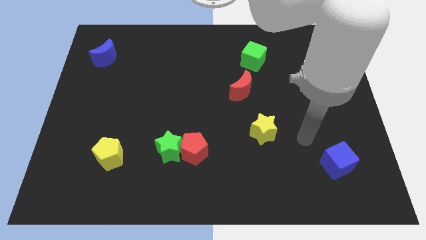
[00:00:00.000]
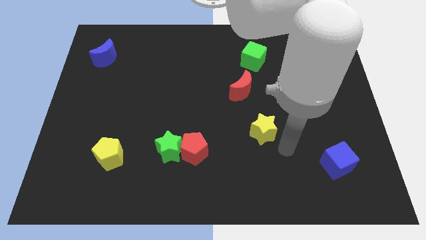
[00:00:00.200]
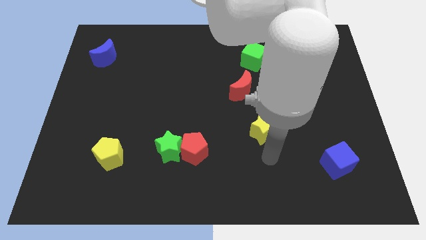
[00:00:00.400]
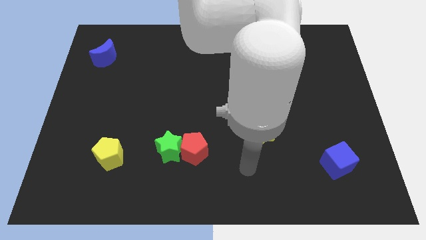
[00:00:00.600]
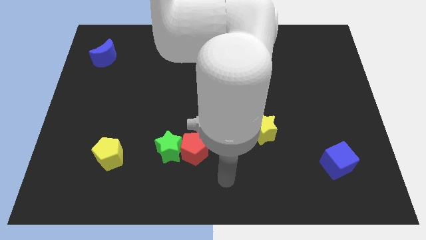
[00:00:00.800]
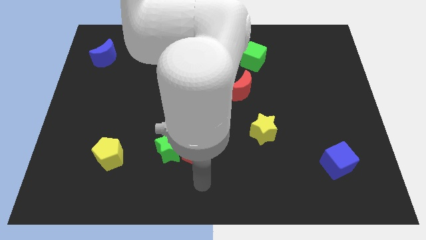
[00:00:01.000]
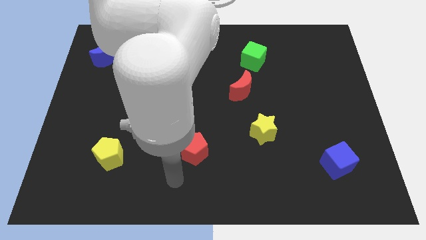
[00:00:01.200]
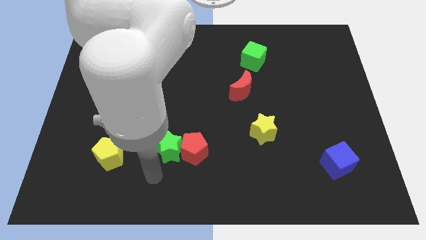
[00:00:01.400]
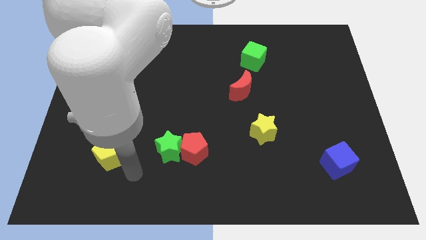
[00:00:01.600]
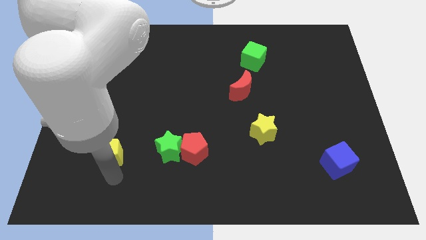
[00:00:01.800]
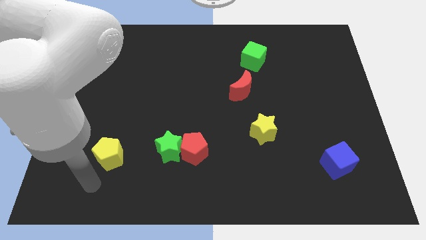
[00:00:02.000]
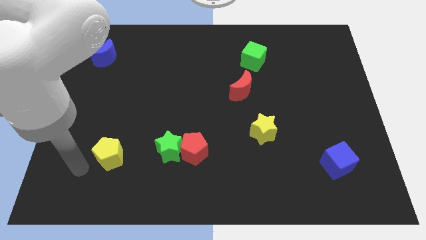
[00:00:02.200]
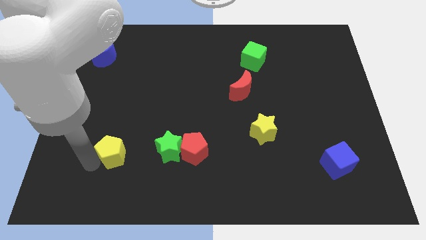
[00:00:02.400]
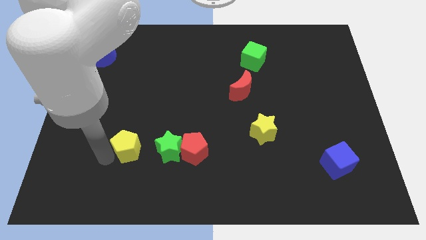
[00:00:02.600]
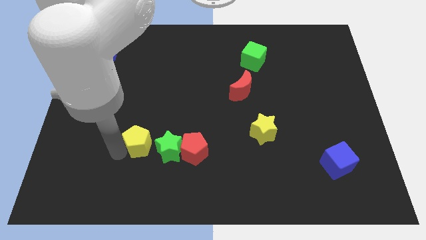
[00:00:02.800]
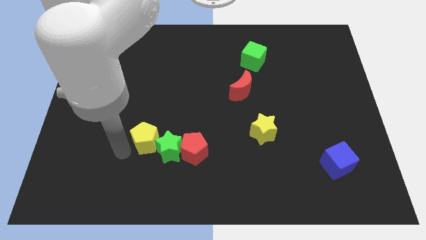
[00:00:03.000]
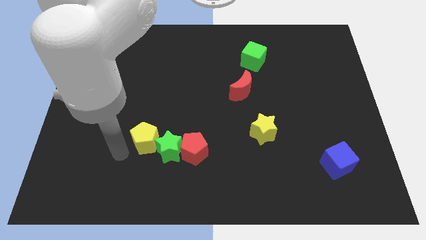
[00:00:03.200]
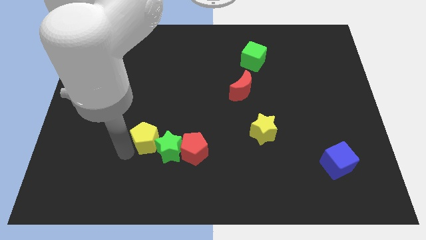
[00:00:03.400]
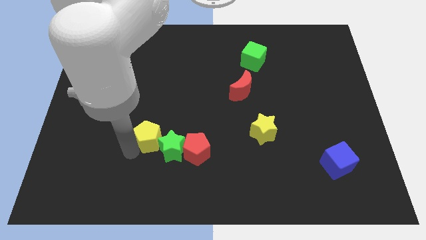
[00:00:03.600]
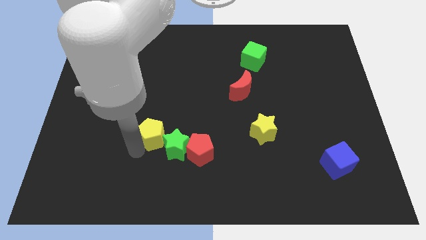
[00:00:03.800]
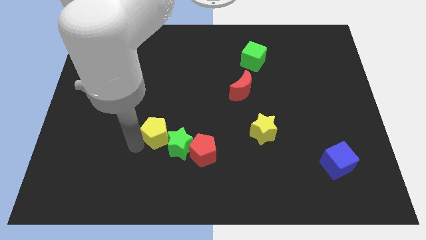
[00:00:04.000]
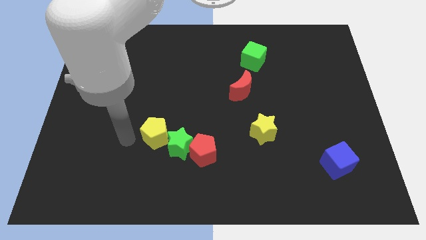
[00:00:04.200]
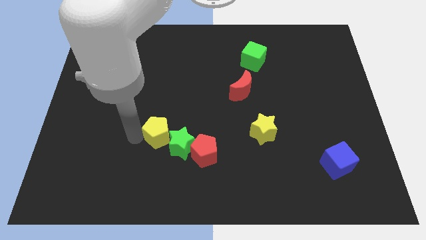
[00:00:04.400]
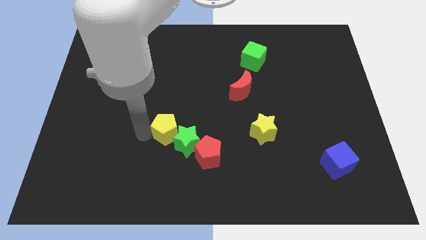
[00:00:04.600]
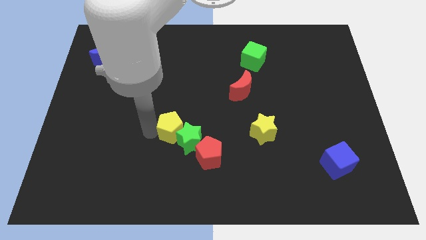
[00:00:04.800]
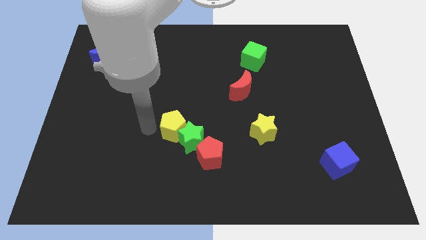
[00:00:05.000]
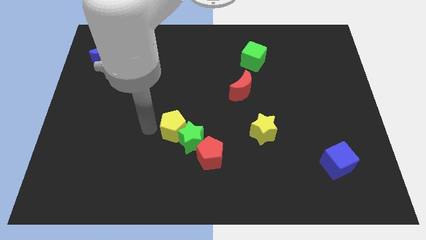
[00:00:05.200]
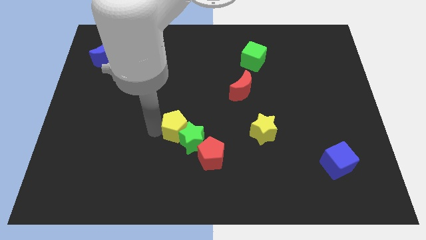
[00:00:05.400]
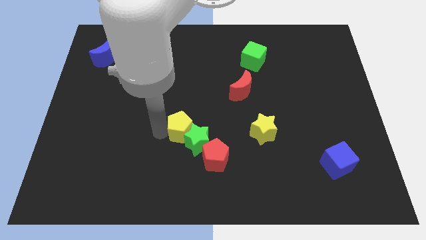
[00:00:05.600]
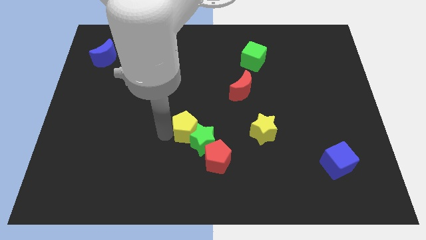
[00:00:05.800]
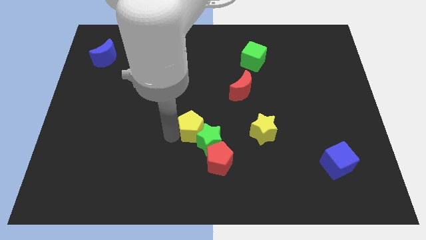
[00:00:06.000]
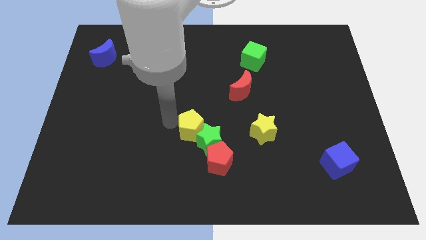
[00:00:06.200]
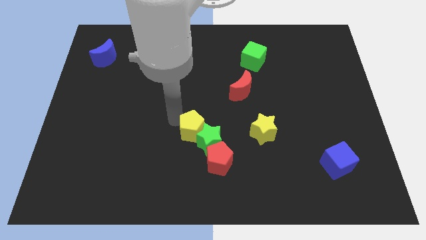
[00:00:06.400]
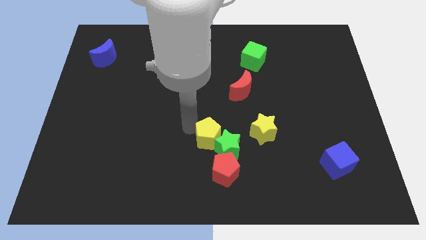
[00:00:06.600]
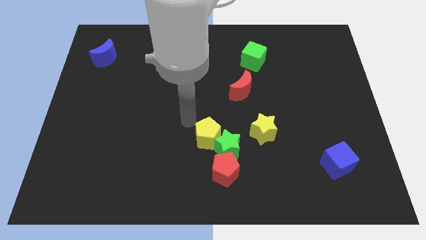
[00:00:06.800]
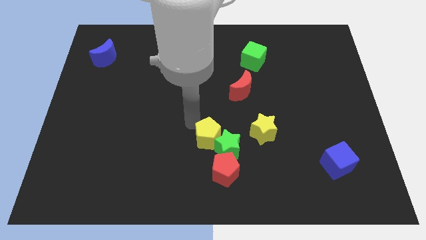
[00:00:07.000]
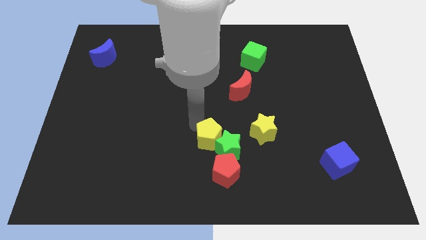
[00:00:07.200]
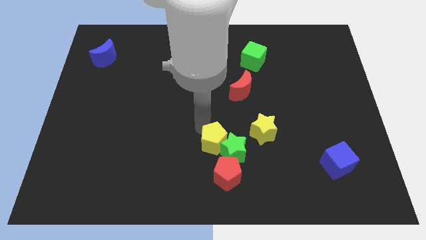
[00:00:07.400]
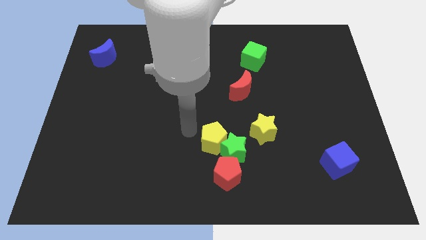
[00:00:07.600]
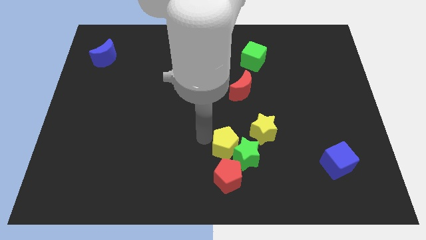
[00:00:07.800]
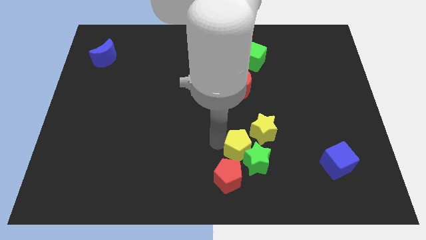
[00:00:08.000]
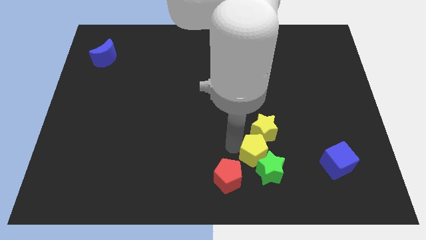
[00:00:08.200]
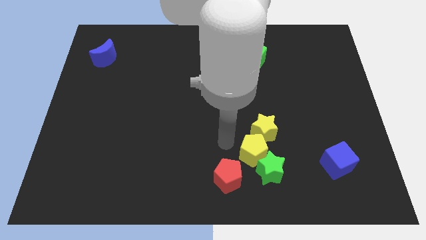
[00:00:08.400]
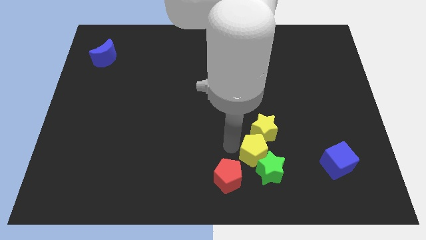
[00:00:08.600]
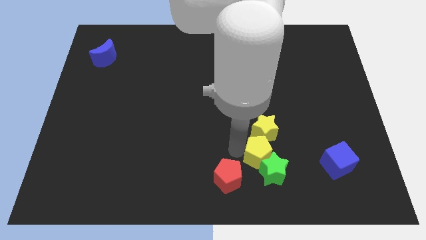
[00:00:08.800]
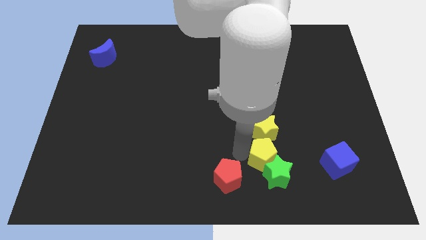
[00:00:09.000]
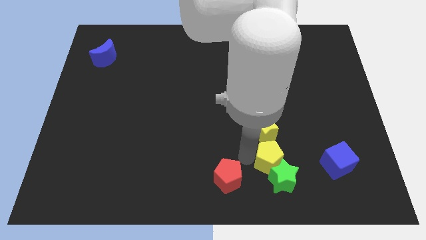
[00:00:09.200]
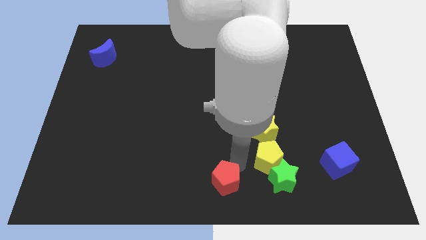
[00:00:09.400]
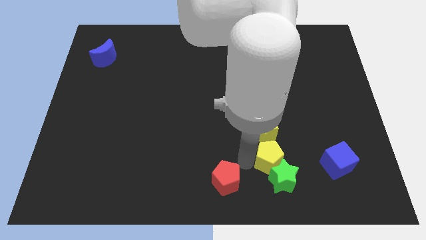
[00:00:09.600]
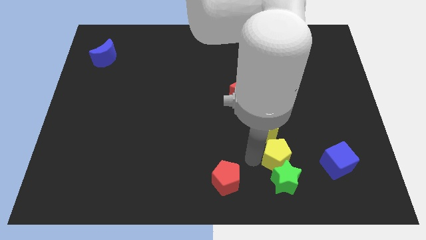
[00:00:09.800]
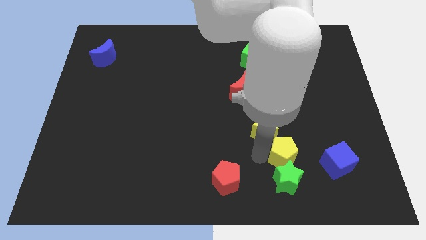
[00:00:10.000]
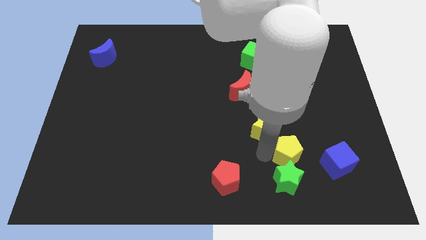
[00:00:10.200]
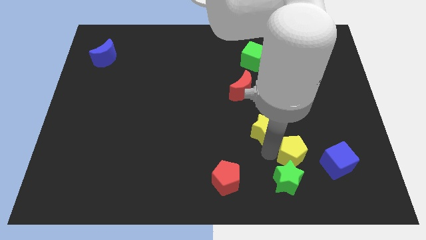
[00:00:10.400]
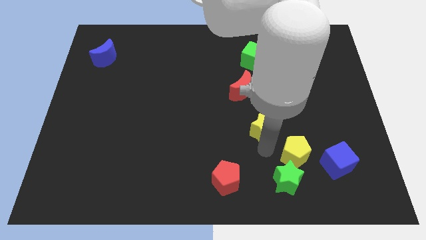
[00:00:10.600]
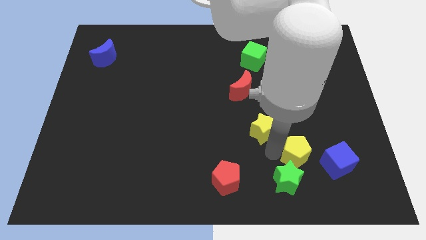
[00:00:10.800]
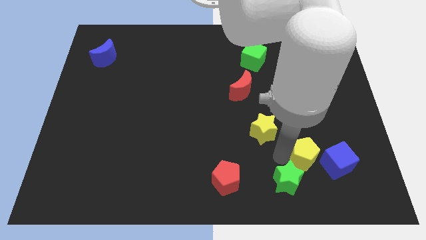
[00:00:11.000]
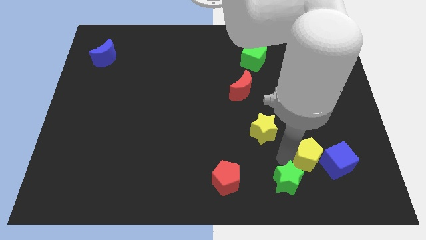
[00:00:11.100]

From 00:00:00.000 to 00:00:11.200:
move the yellow pentagon towards the blue cube

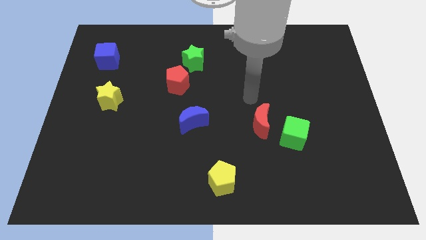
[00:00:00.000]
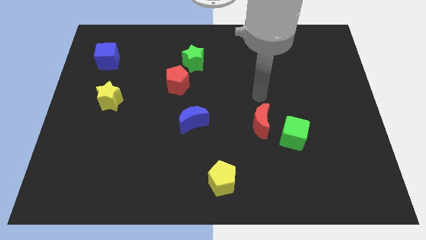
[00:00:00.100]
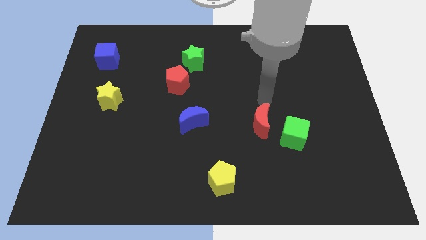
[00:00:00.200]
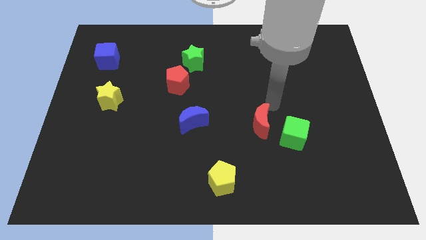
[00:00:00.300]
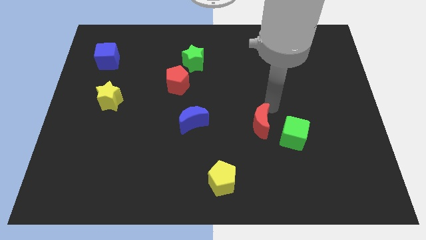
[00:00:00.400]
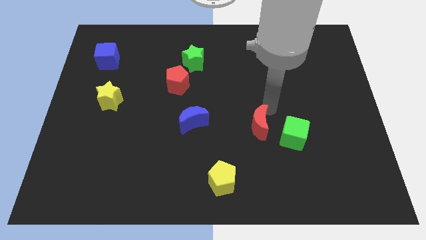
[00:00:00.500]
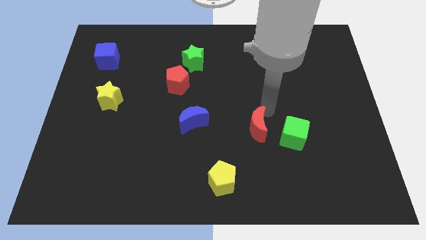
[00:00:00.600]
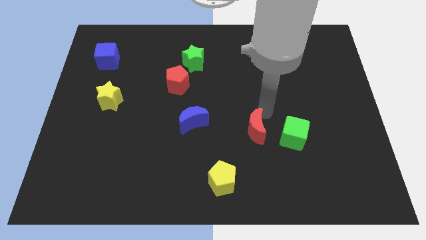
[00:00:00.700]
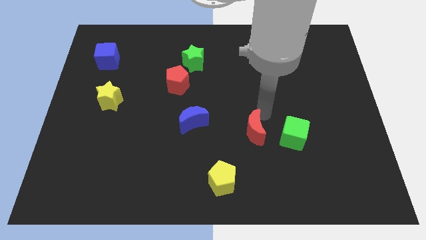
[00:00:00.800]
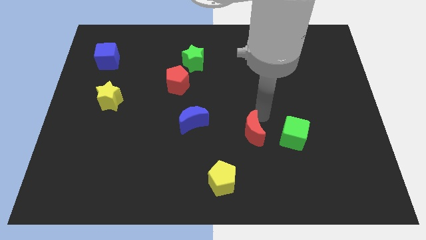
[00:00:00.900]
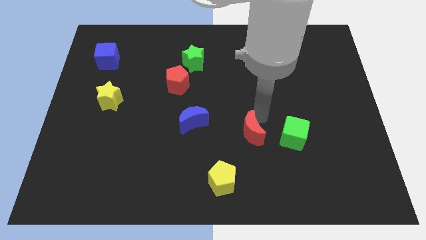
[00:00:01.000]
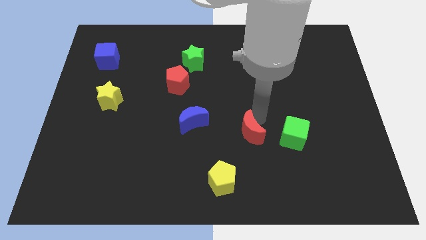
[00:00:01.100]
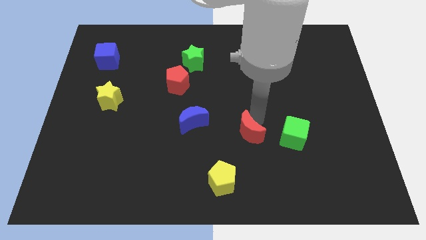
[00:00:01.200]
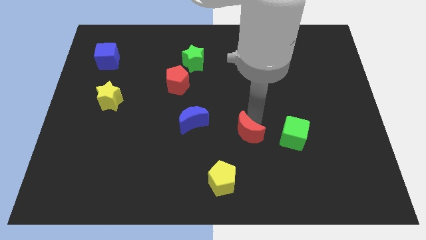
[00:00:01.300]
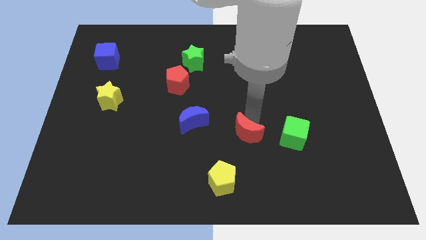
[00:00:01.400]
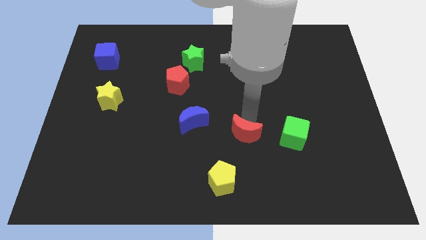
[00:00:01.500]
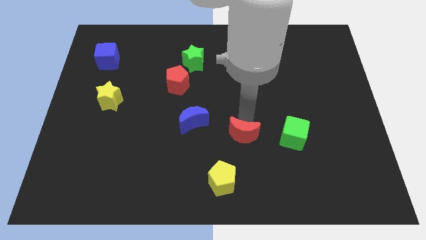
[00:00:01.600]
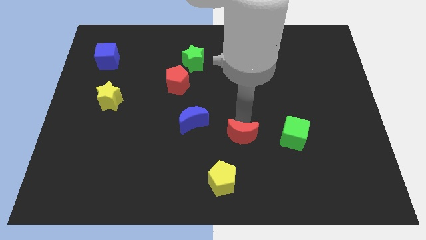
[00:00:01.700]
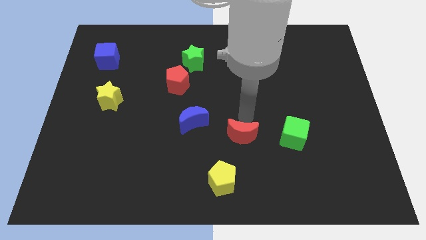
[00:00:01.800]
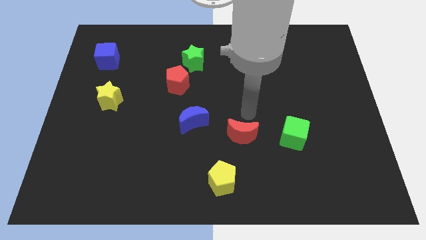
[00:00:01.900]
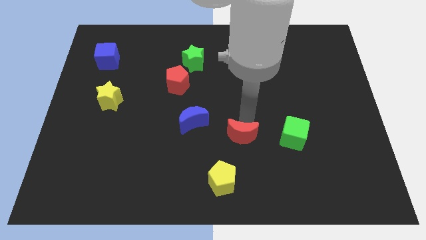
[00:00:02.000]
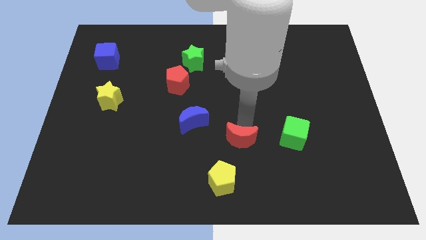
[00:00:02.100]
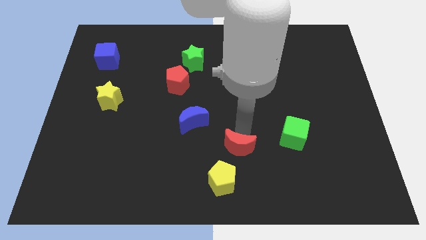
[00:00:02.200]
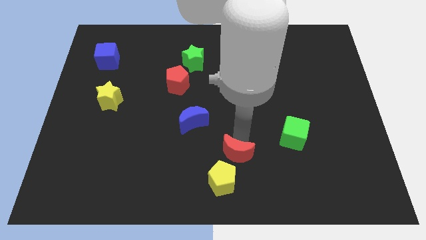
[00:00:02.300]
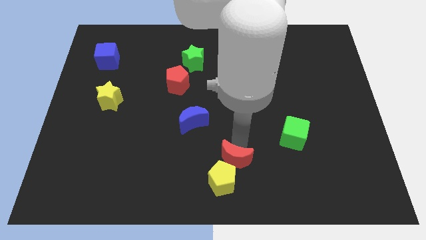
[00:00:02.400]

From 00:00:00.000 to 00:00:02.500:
push the red moon to the yellow pentagon
